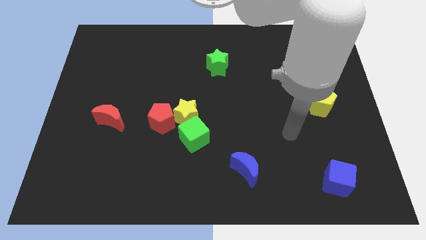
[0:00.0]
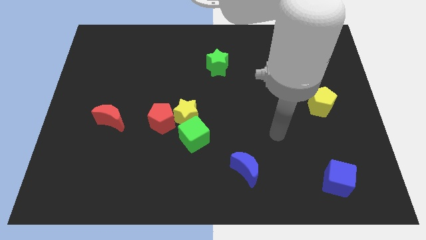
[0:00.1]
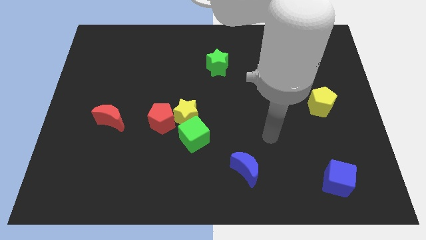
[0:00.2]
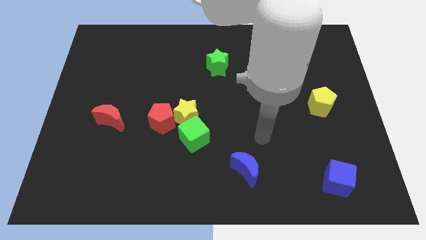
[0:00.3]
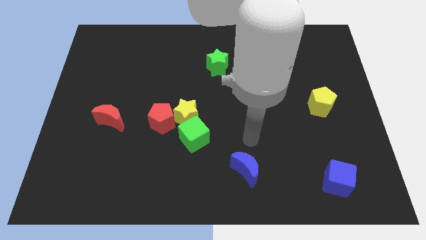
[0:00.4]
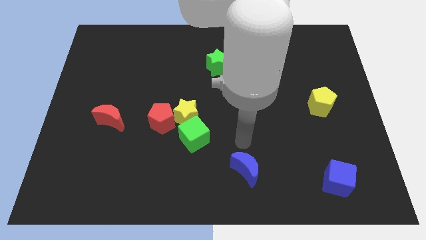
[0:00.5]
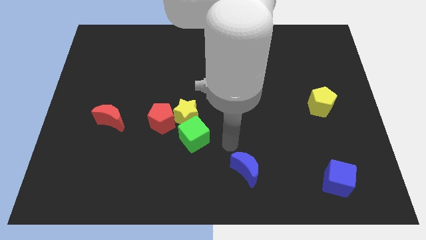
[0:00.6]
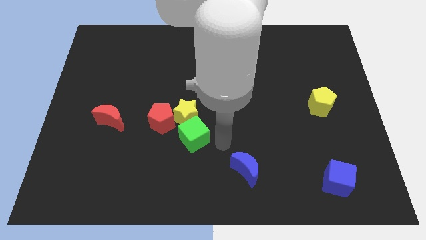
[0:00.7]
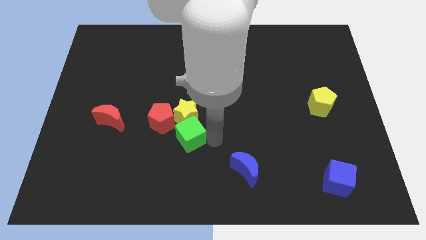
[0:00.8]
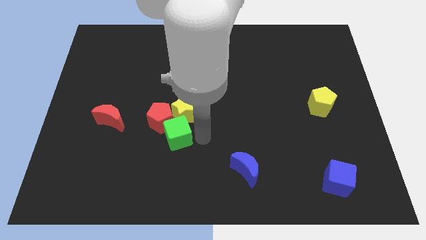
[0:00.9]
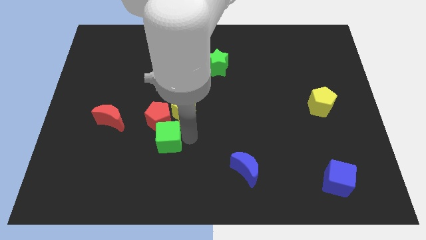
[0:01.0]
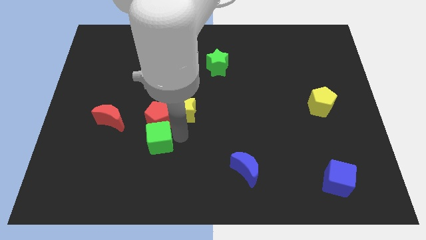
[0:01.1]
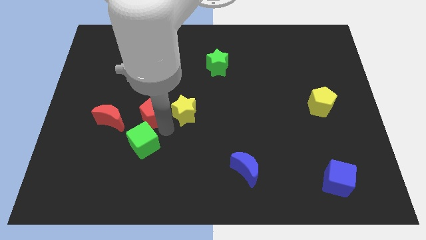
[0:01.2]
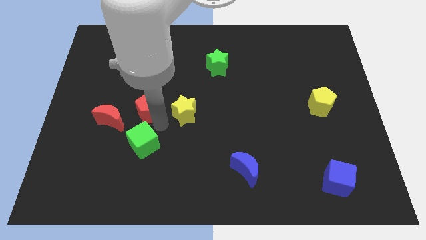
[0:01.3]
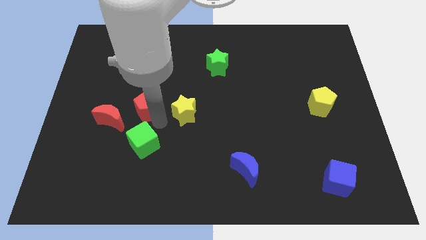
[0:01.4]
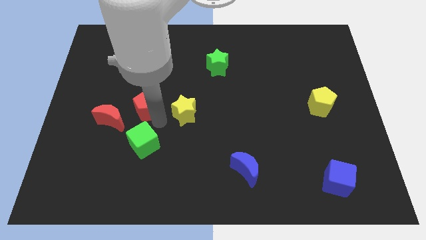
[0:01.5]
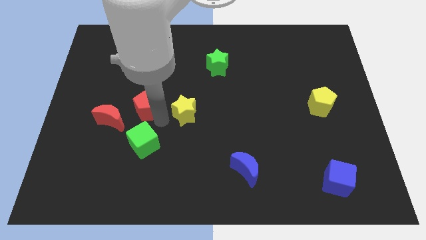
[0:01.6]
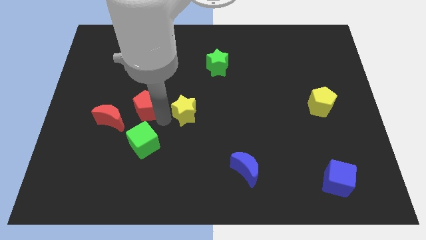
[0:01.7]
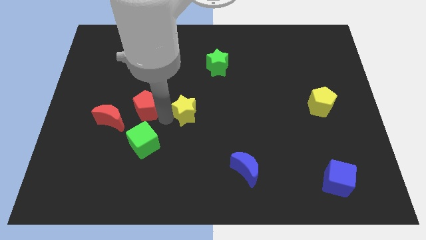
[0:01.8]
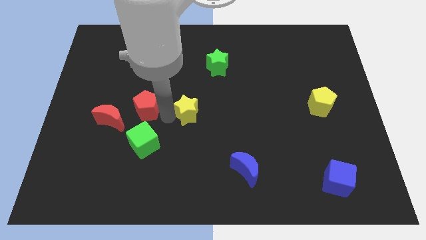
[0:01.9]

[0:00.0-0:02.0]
move the yellow star away from the green cube and red pentagon

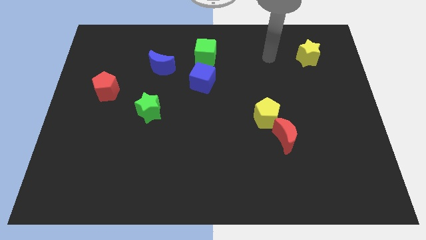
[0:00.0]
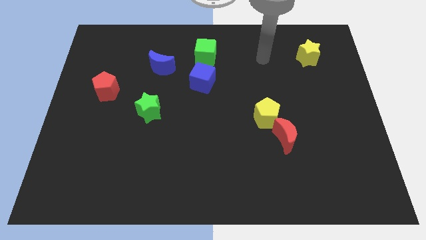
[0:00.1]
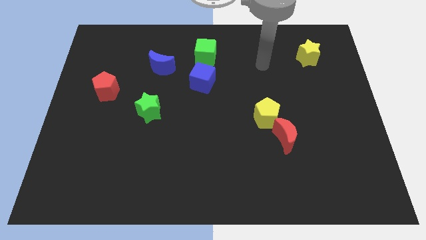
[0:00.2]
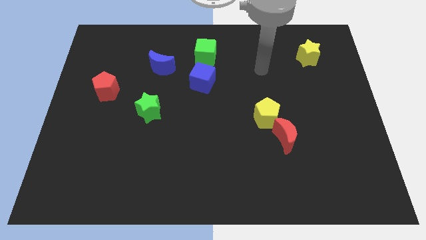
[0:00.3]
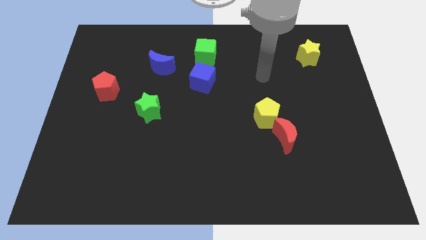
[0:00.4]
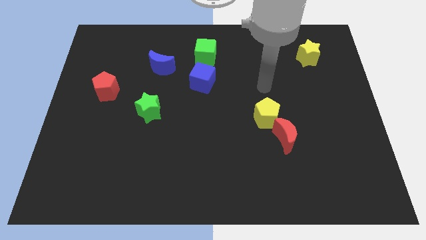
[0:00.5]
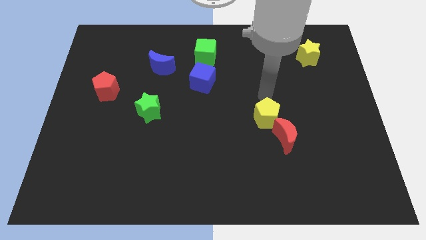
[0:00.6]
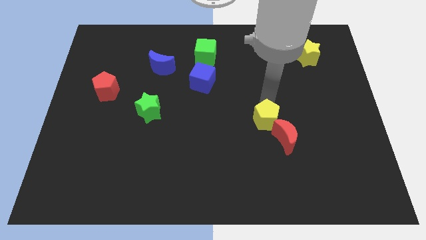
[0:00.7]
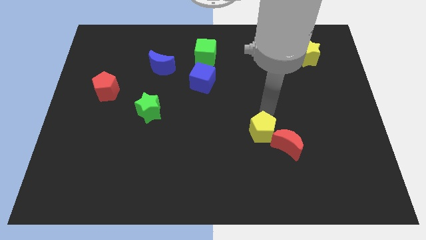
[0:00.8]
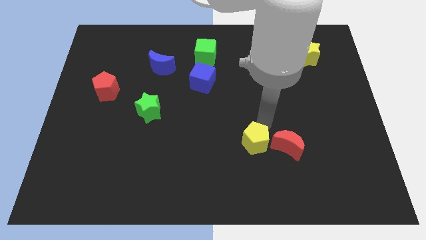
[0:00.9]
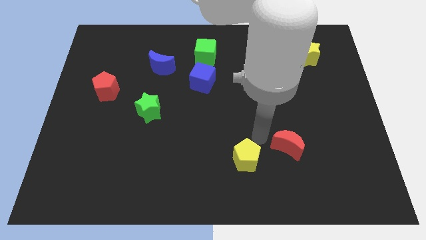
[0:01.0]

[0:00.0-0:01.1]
pull the red moon apart from the yellow pentagon

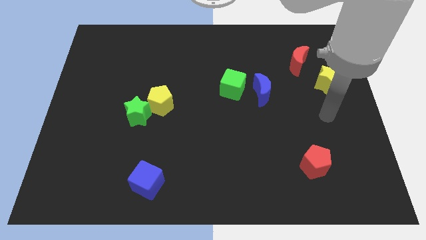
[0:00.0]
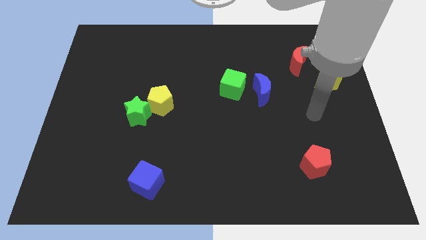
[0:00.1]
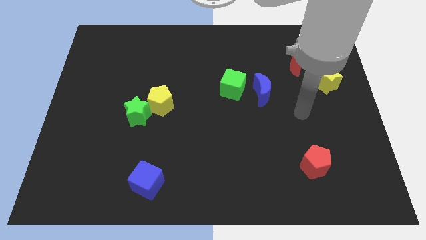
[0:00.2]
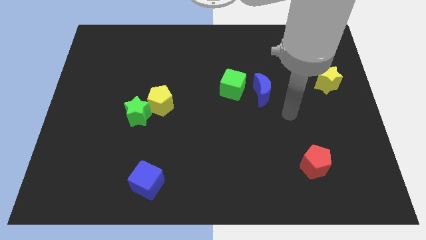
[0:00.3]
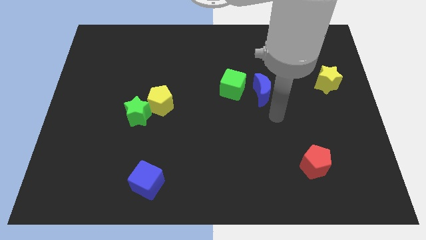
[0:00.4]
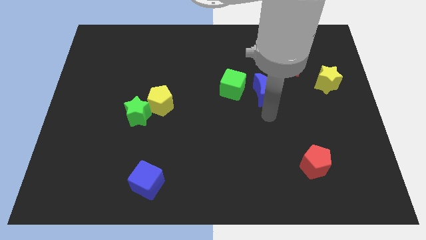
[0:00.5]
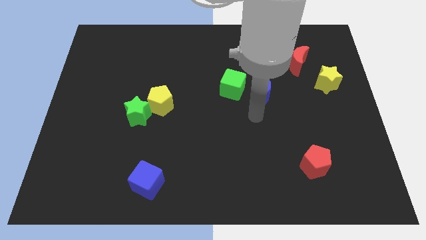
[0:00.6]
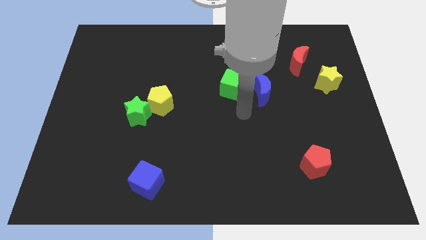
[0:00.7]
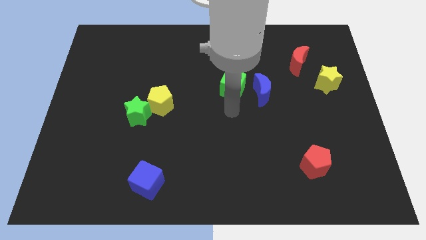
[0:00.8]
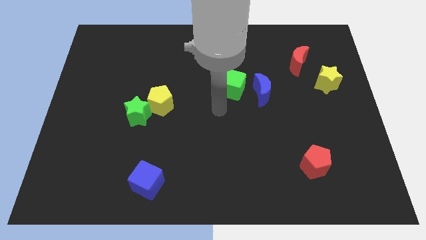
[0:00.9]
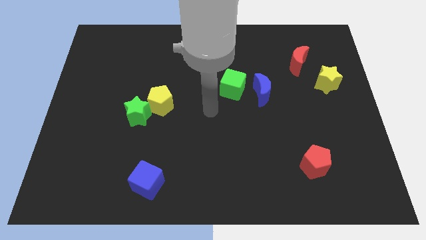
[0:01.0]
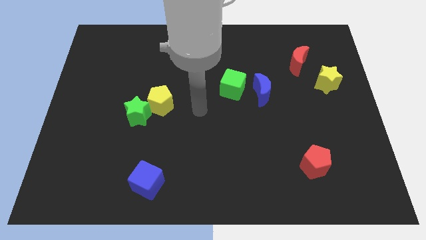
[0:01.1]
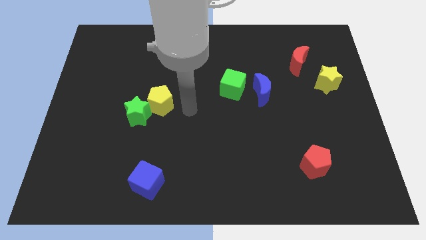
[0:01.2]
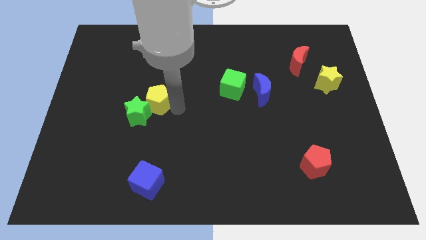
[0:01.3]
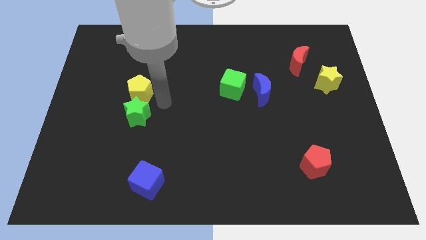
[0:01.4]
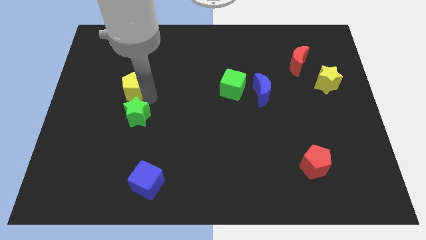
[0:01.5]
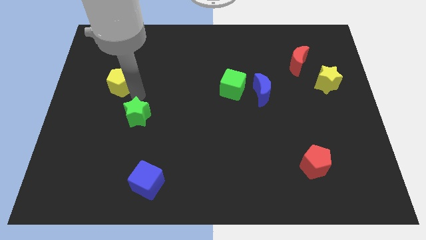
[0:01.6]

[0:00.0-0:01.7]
move the green star away from the yellow pentagon

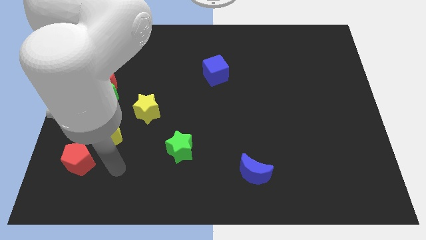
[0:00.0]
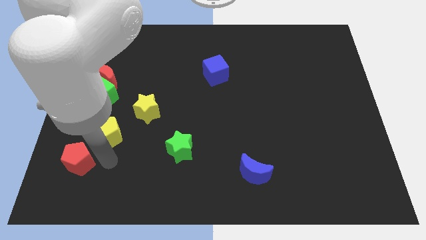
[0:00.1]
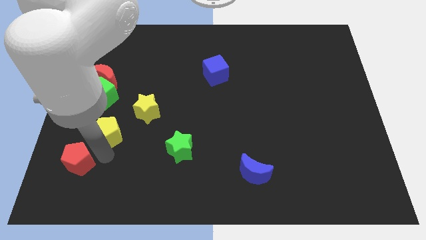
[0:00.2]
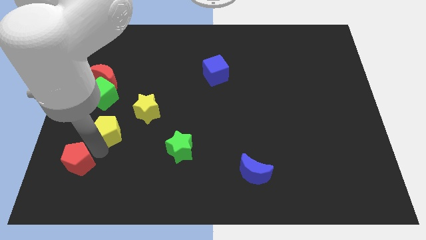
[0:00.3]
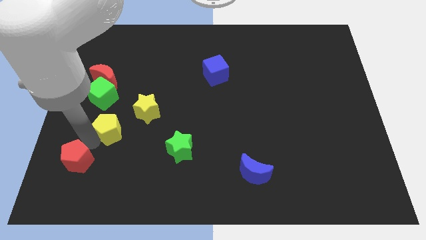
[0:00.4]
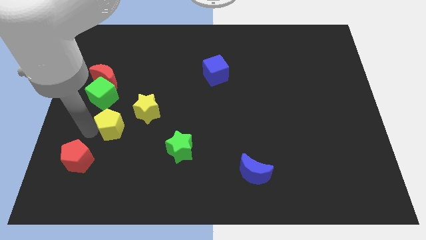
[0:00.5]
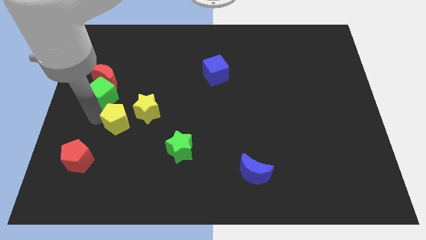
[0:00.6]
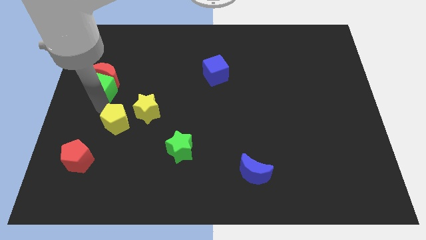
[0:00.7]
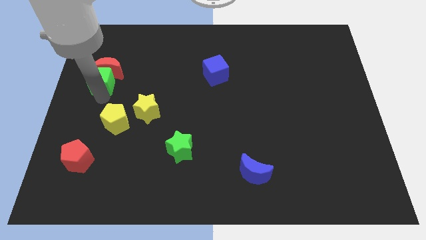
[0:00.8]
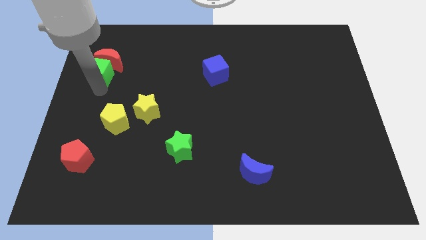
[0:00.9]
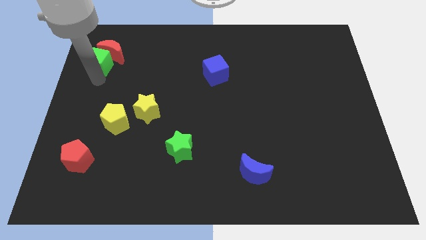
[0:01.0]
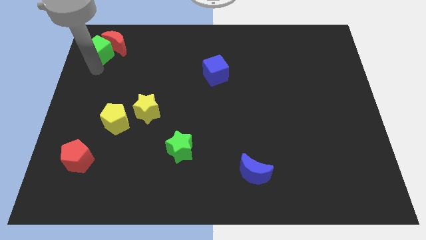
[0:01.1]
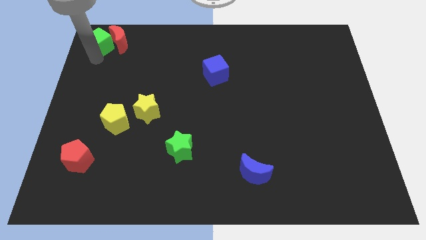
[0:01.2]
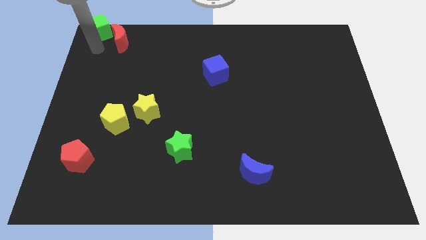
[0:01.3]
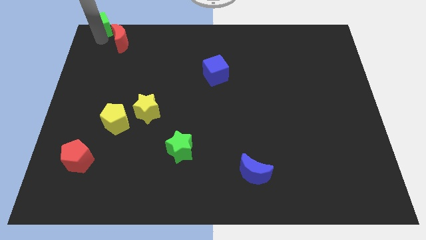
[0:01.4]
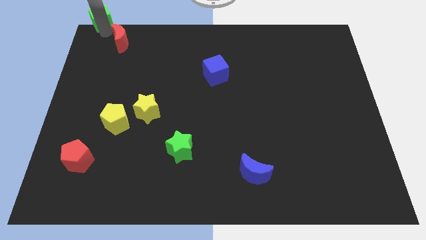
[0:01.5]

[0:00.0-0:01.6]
move the red moon away from the green cube

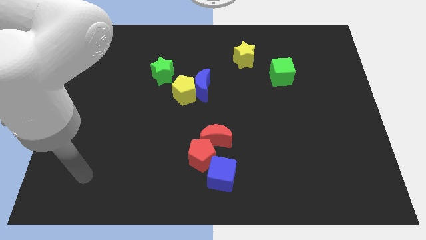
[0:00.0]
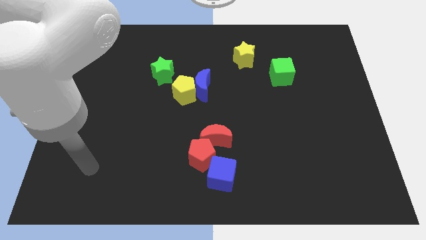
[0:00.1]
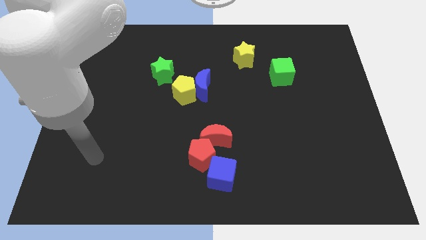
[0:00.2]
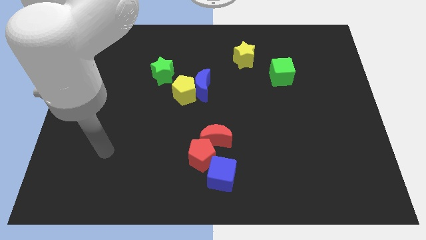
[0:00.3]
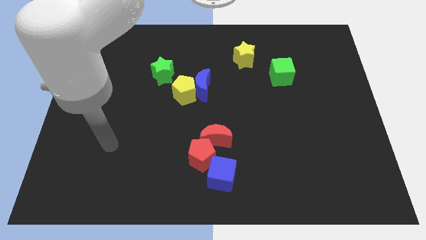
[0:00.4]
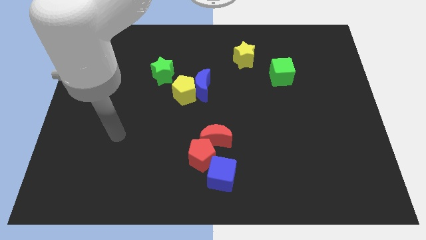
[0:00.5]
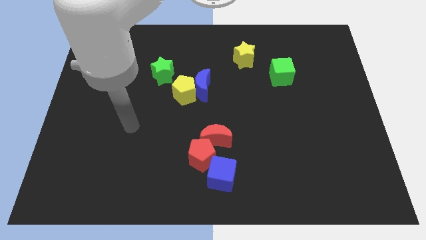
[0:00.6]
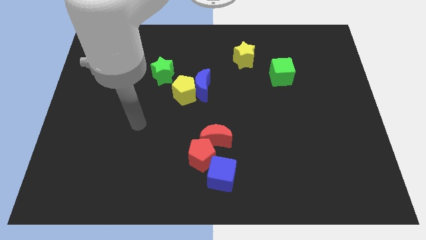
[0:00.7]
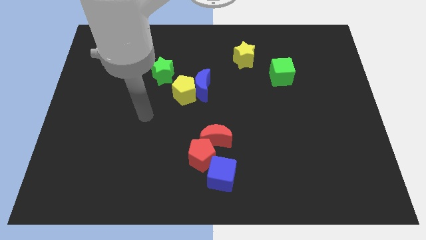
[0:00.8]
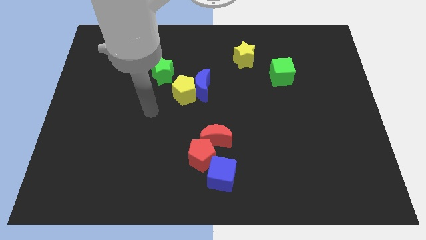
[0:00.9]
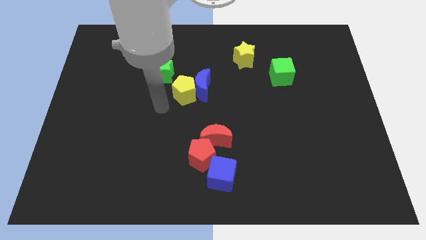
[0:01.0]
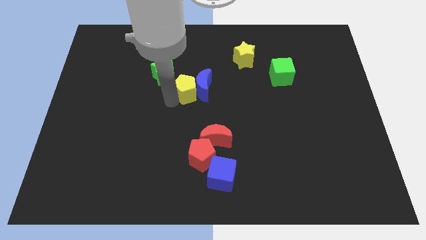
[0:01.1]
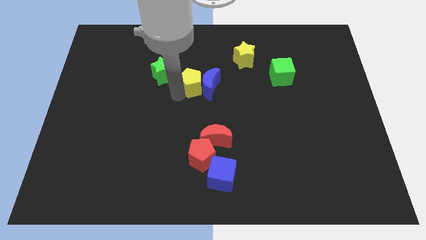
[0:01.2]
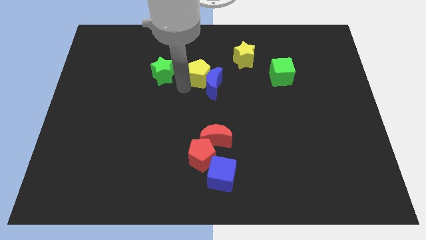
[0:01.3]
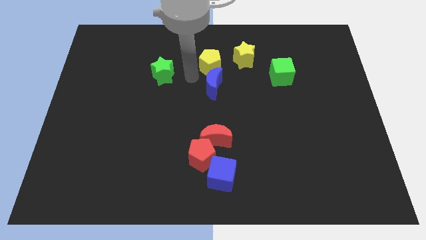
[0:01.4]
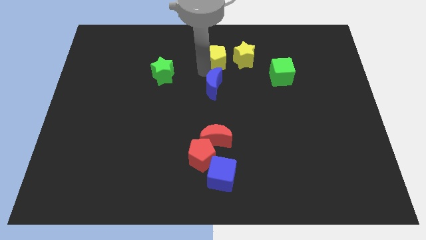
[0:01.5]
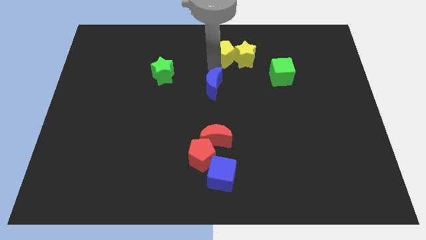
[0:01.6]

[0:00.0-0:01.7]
move the blue moon away from the yellow pentagon

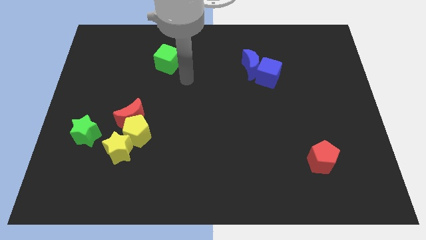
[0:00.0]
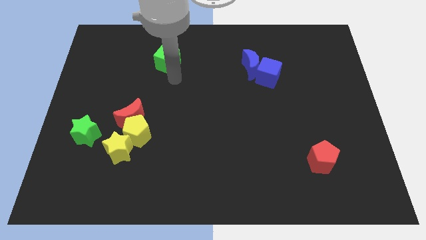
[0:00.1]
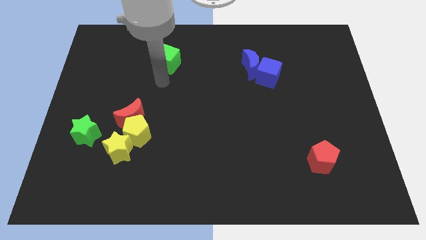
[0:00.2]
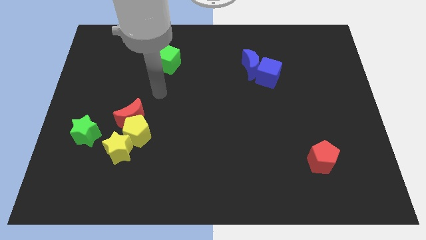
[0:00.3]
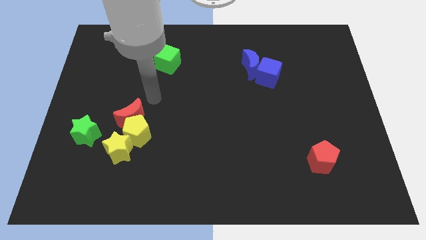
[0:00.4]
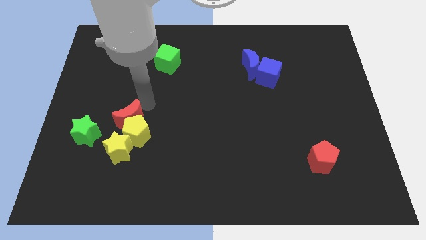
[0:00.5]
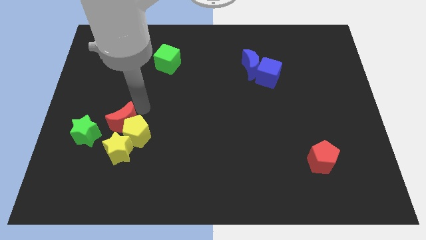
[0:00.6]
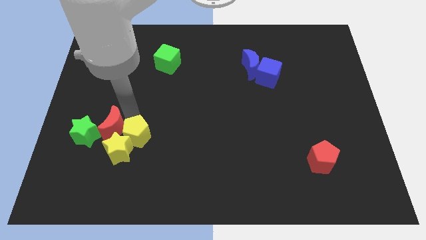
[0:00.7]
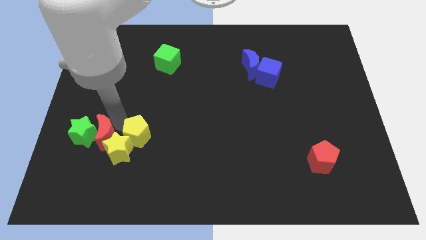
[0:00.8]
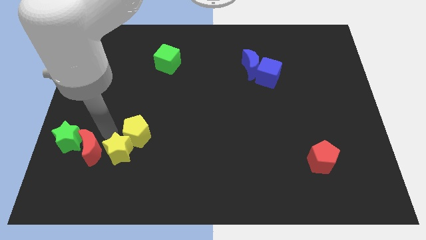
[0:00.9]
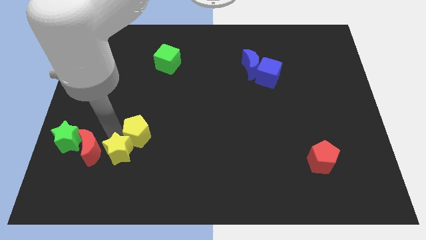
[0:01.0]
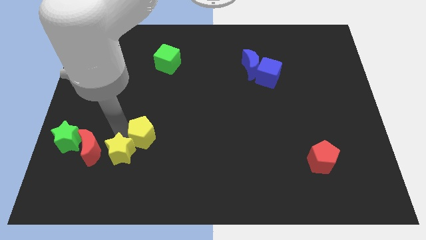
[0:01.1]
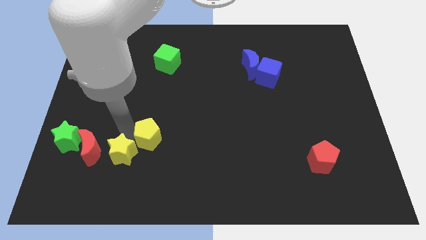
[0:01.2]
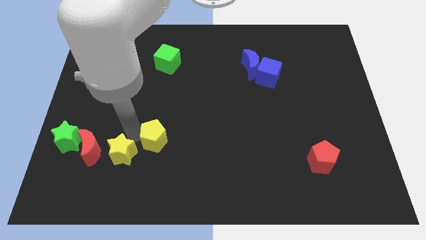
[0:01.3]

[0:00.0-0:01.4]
pull the yellow pentagon apart from the red moon and yellow star
